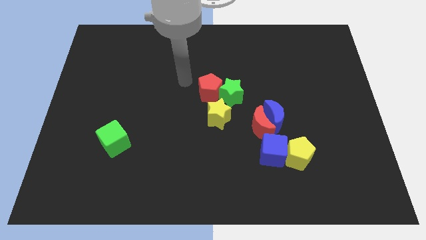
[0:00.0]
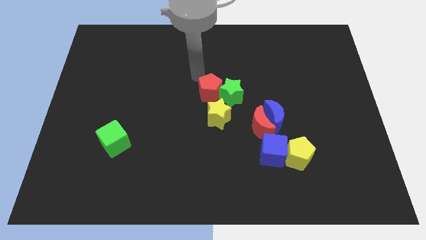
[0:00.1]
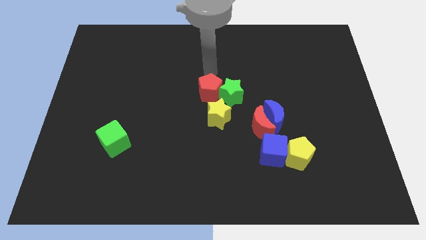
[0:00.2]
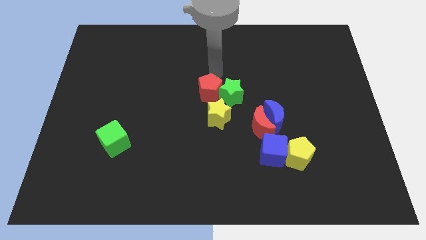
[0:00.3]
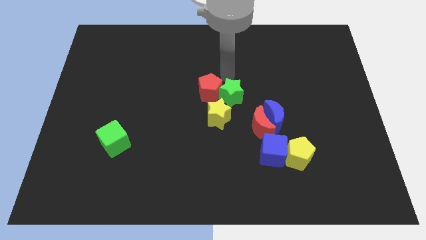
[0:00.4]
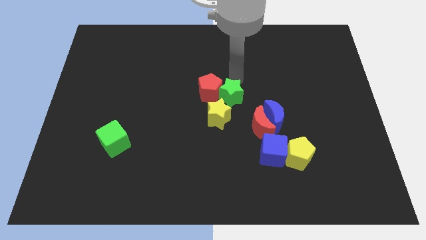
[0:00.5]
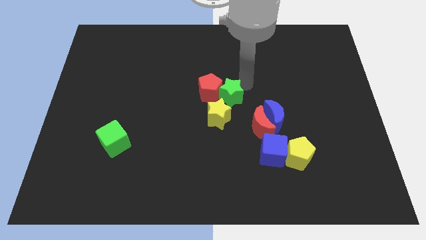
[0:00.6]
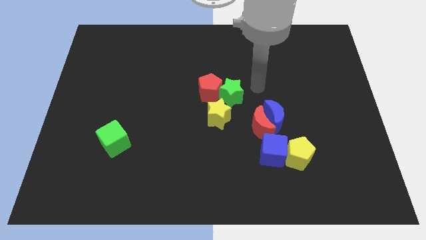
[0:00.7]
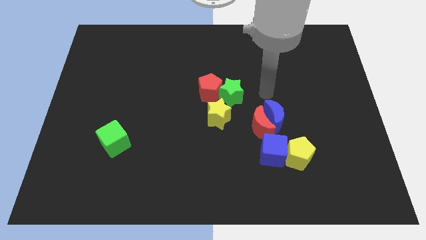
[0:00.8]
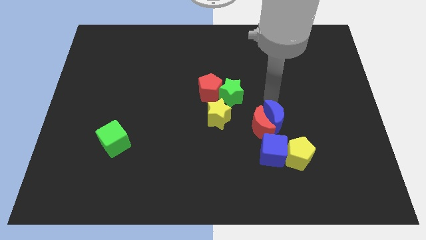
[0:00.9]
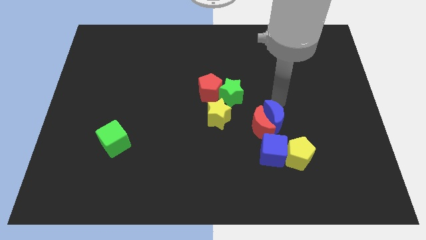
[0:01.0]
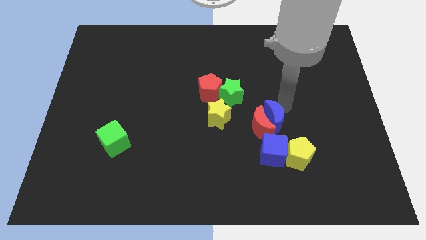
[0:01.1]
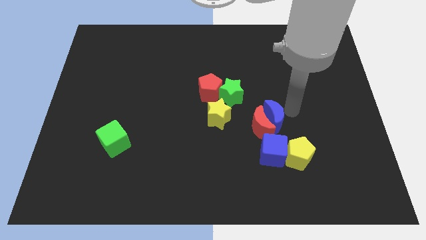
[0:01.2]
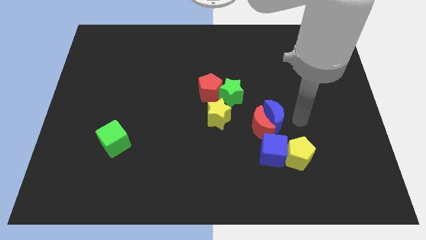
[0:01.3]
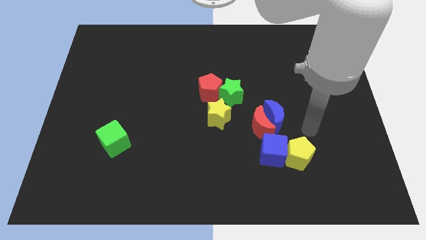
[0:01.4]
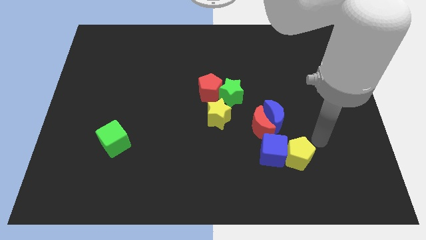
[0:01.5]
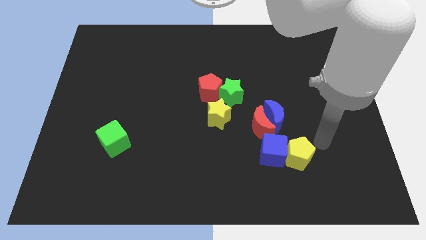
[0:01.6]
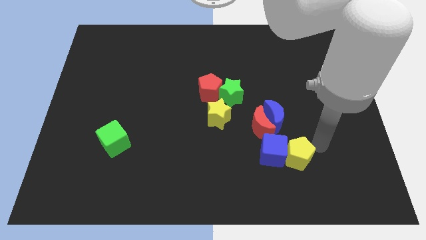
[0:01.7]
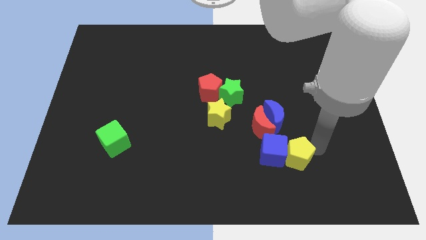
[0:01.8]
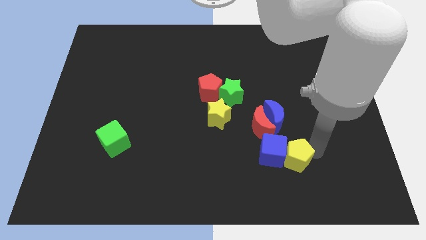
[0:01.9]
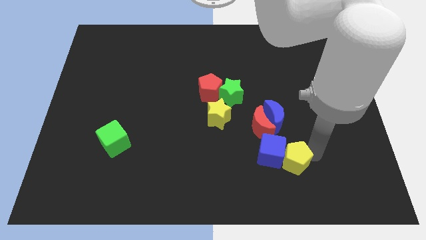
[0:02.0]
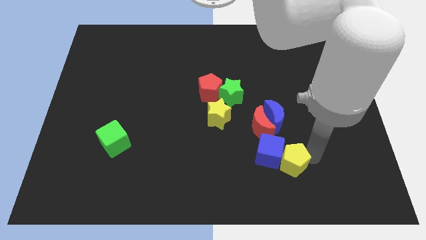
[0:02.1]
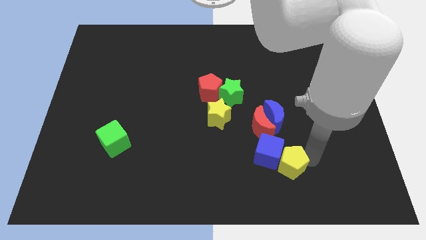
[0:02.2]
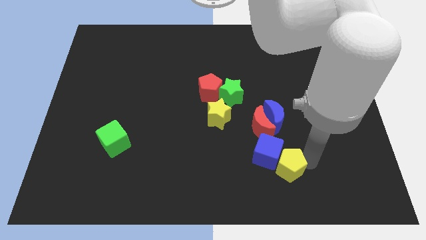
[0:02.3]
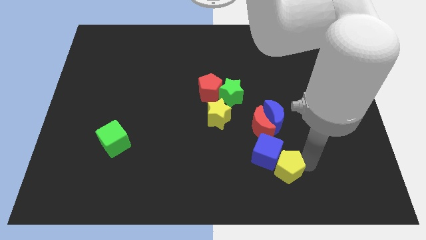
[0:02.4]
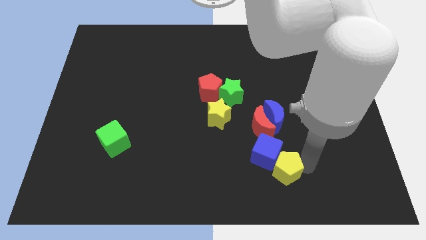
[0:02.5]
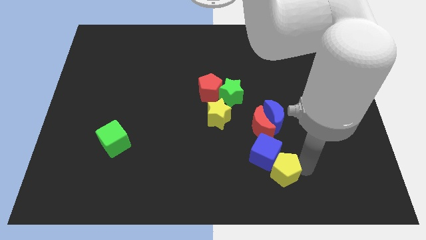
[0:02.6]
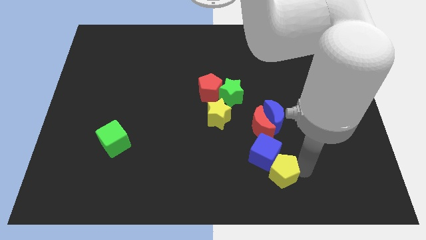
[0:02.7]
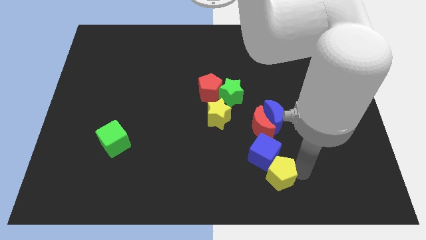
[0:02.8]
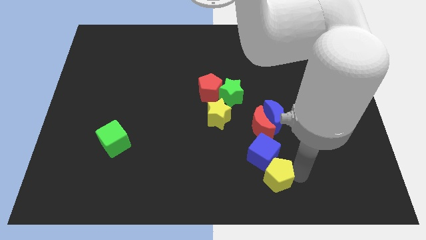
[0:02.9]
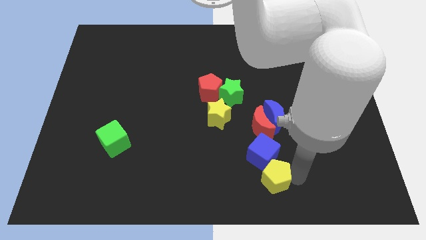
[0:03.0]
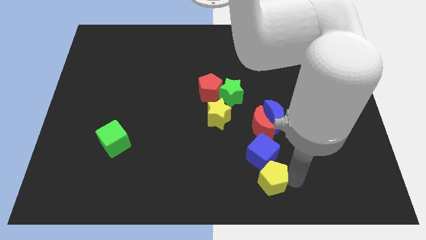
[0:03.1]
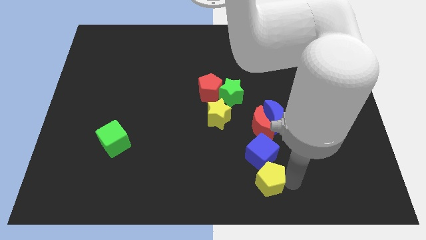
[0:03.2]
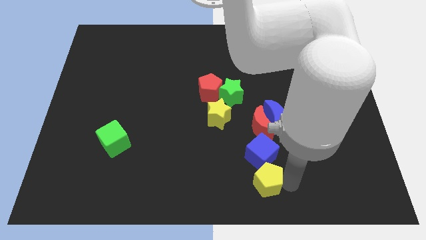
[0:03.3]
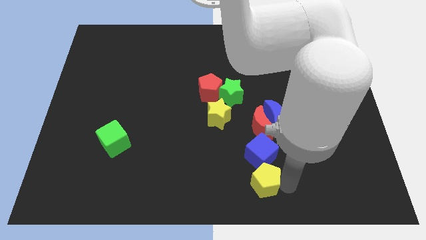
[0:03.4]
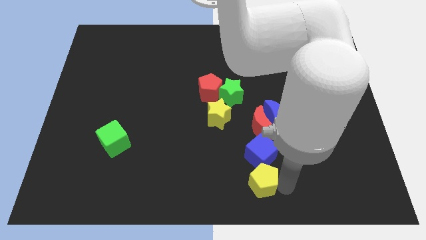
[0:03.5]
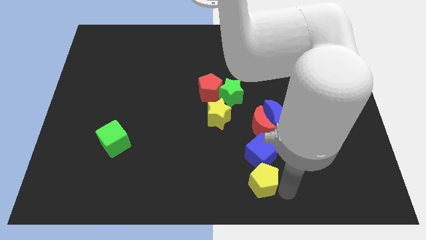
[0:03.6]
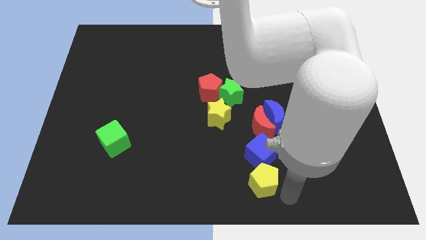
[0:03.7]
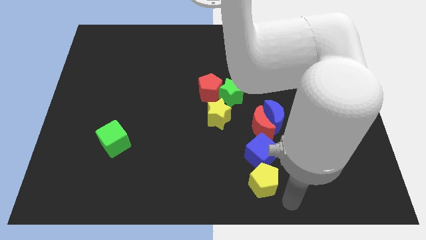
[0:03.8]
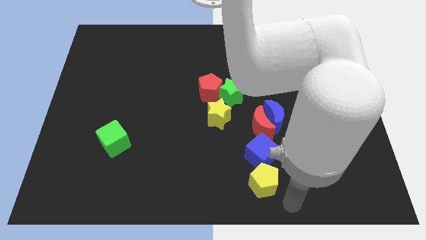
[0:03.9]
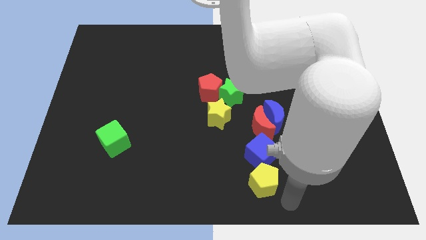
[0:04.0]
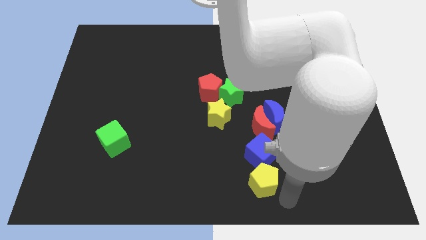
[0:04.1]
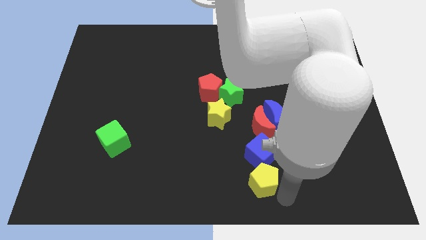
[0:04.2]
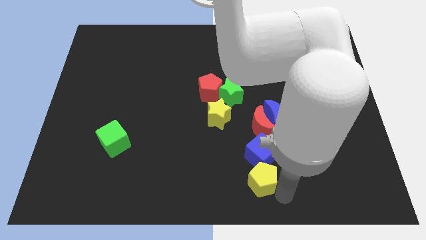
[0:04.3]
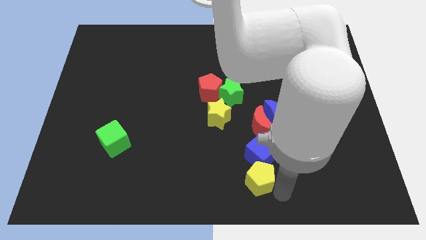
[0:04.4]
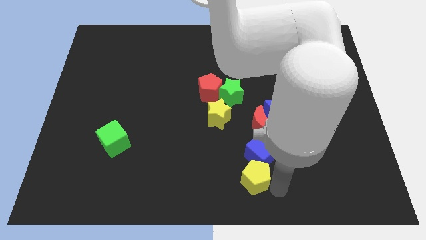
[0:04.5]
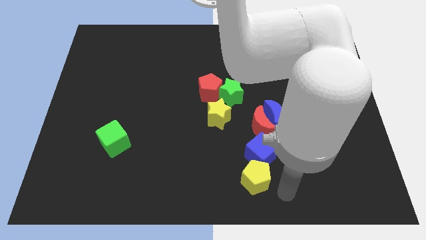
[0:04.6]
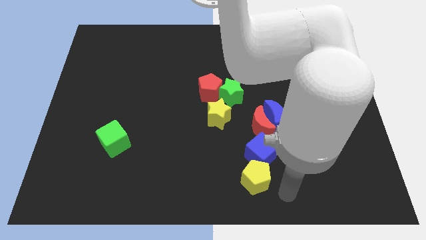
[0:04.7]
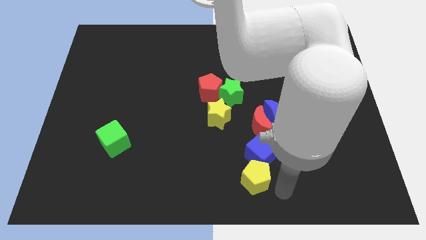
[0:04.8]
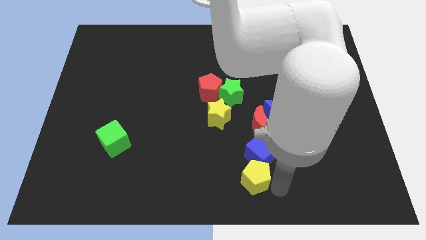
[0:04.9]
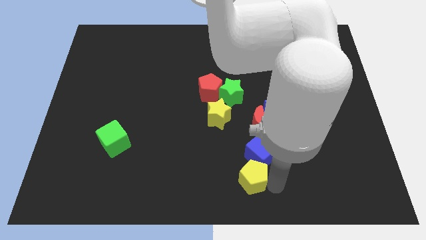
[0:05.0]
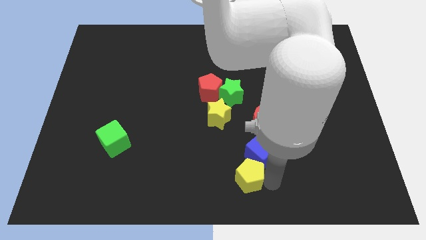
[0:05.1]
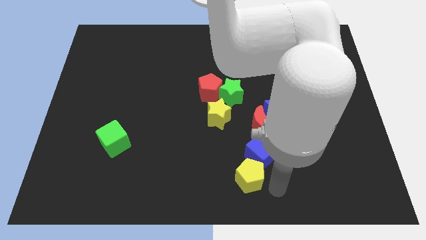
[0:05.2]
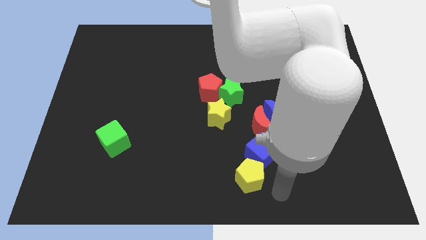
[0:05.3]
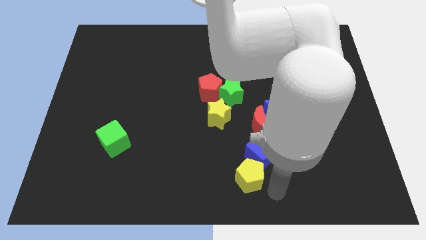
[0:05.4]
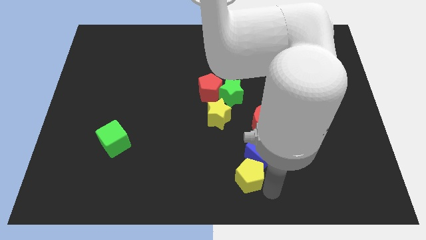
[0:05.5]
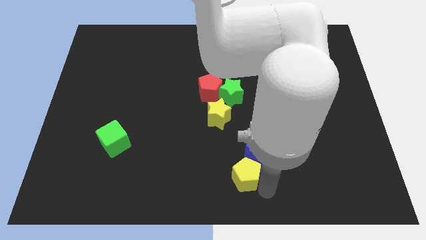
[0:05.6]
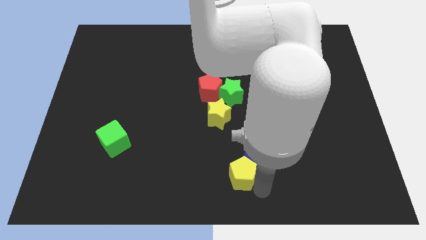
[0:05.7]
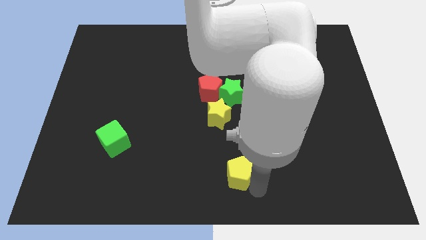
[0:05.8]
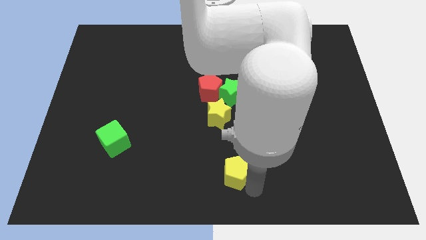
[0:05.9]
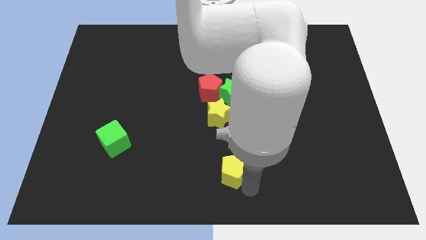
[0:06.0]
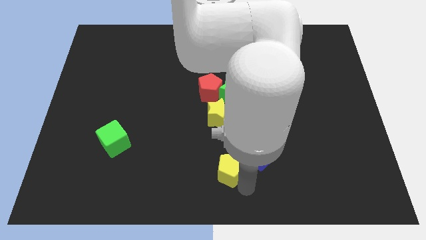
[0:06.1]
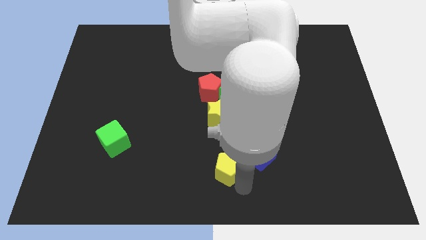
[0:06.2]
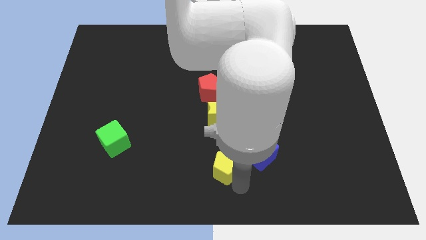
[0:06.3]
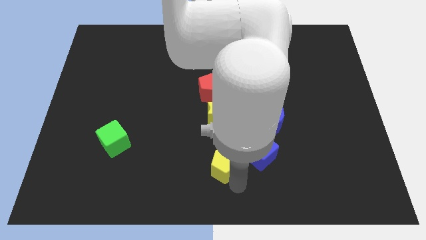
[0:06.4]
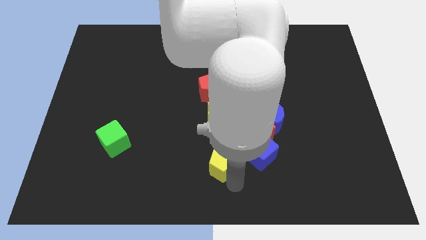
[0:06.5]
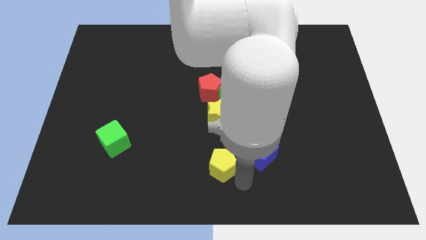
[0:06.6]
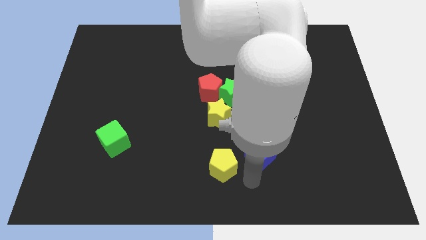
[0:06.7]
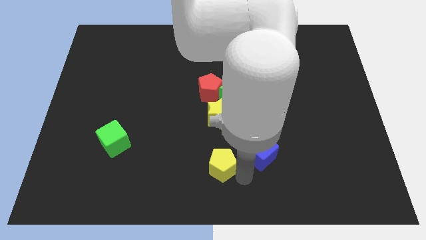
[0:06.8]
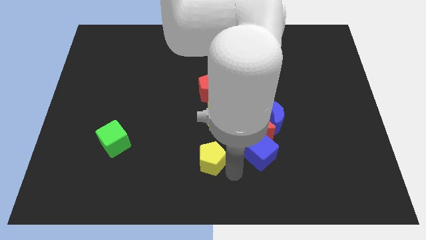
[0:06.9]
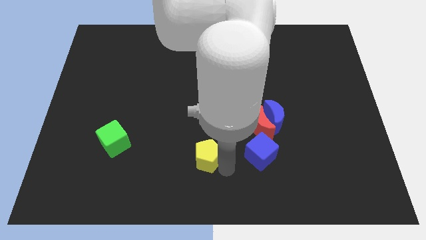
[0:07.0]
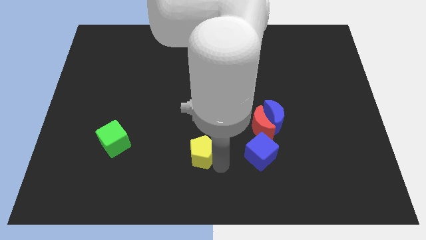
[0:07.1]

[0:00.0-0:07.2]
push the yellow pentagon left

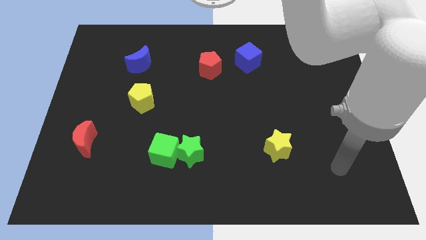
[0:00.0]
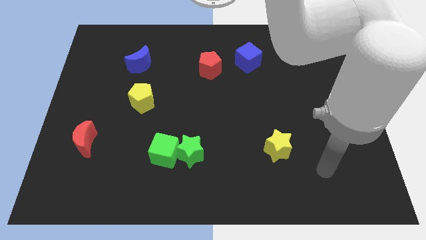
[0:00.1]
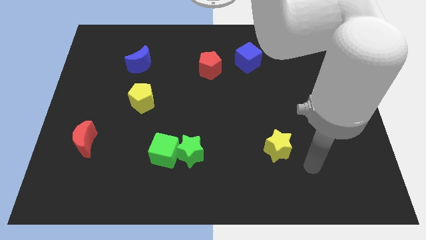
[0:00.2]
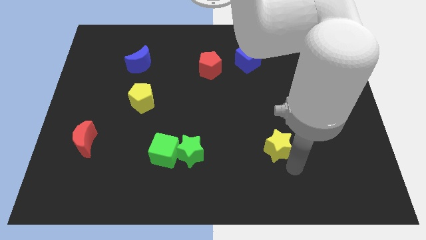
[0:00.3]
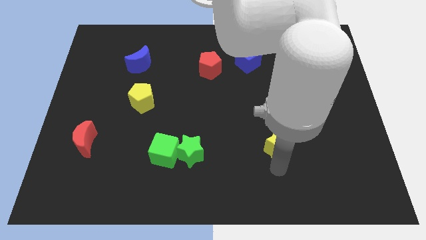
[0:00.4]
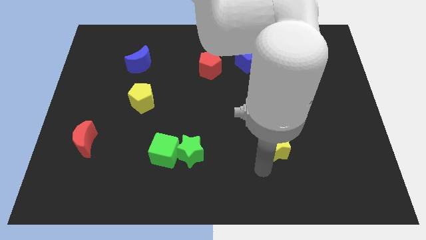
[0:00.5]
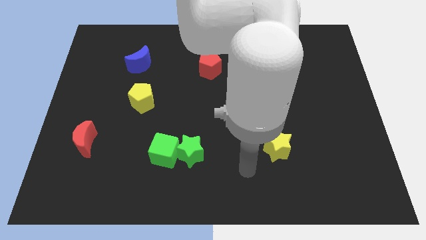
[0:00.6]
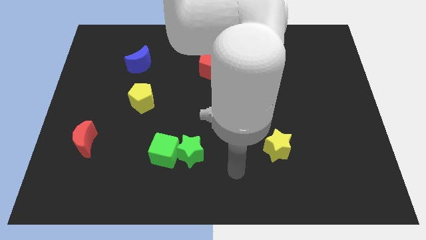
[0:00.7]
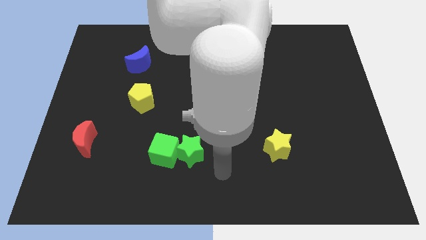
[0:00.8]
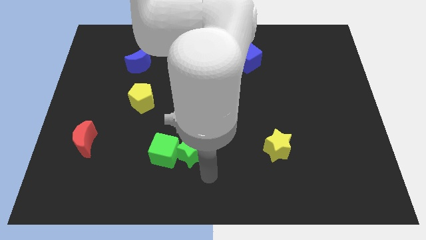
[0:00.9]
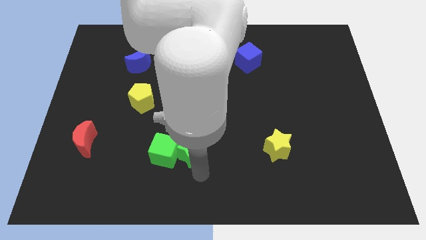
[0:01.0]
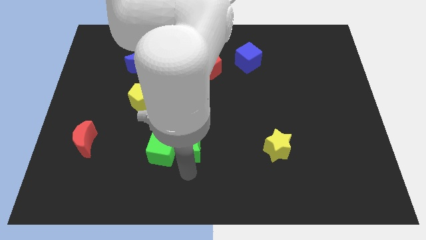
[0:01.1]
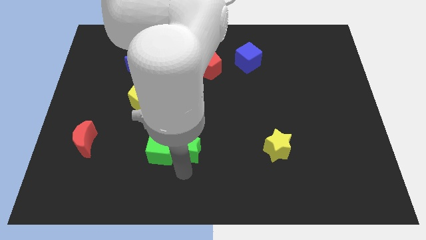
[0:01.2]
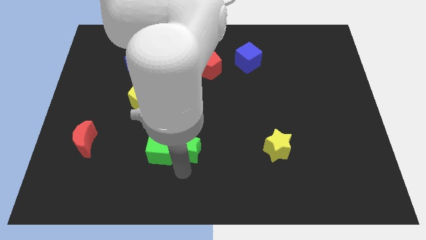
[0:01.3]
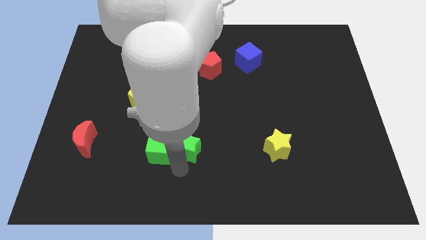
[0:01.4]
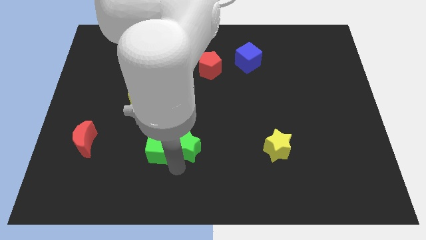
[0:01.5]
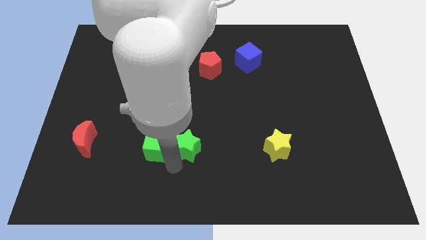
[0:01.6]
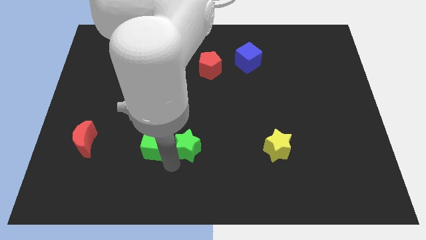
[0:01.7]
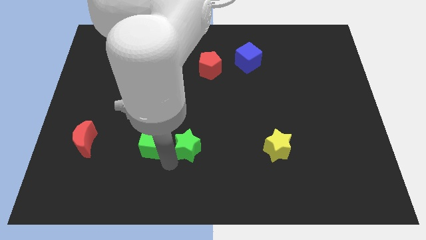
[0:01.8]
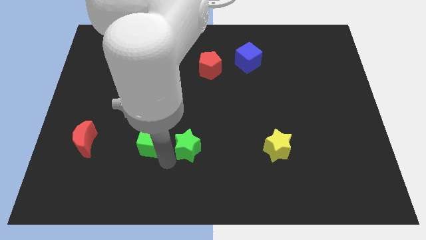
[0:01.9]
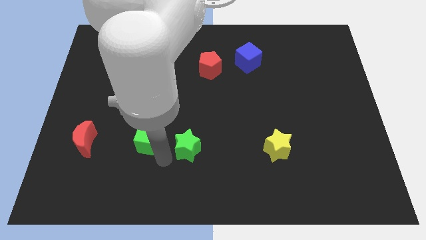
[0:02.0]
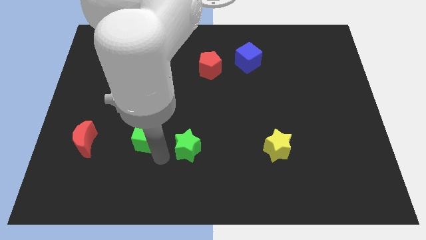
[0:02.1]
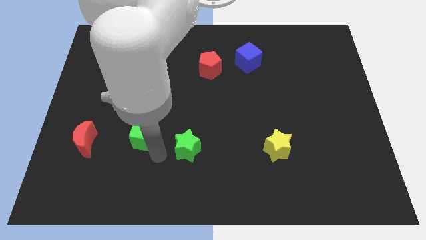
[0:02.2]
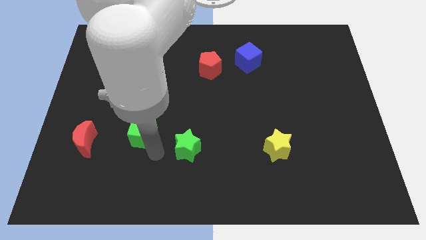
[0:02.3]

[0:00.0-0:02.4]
move the green cube up and to the left diagonally a little bit
